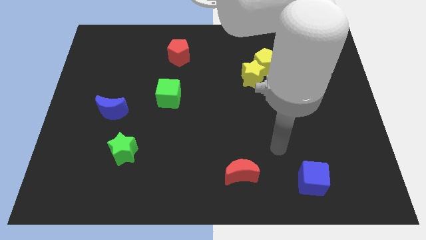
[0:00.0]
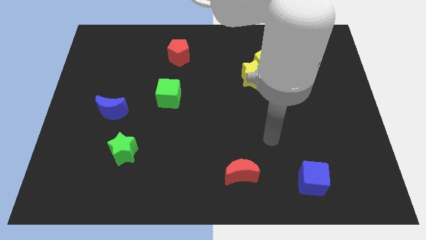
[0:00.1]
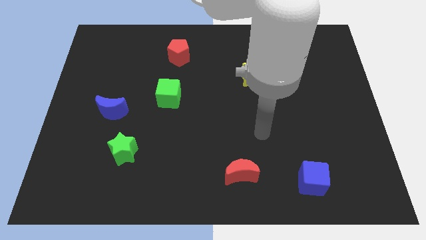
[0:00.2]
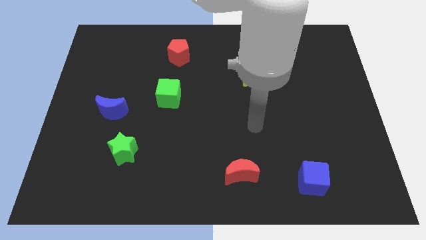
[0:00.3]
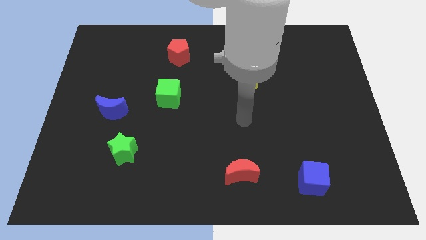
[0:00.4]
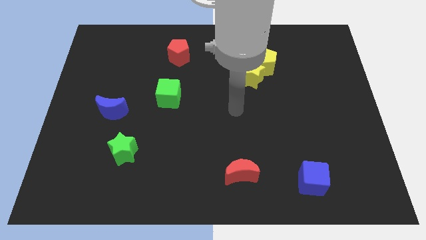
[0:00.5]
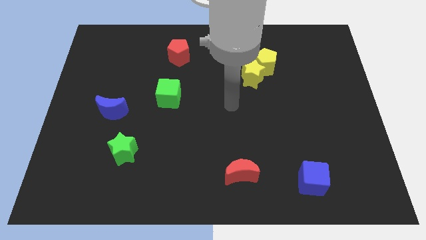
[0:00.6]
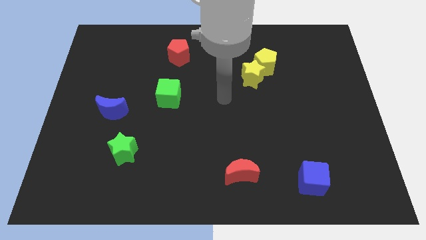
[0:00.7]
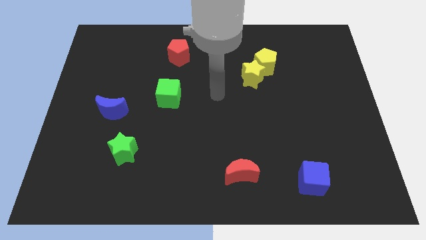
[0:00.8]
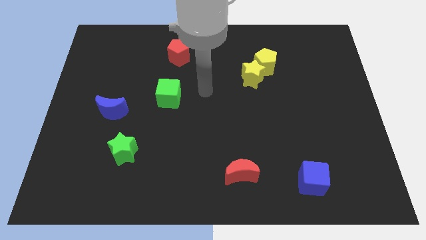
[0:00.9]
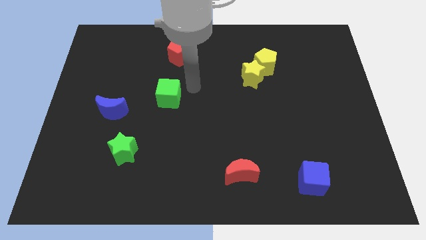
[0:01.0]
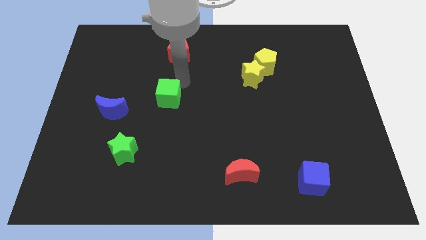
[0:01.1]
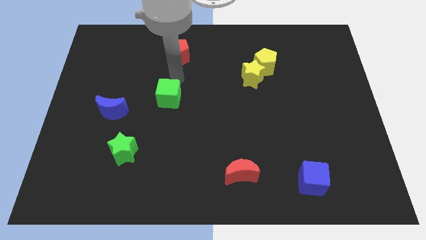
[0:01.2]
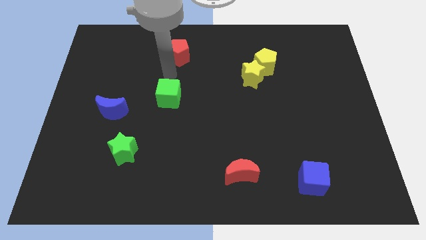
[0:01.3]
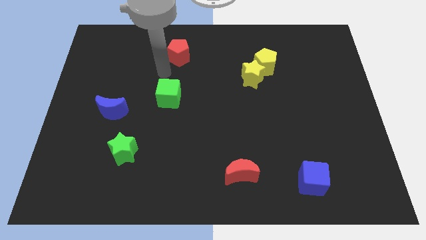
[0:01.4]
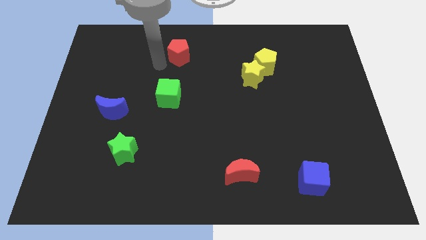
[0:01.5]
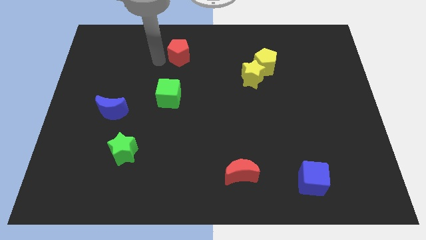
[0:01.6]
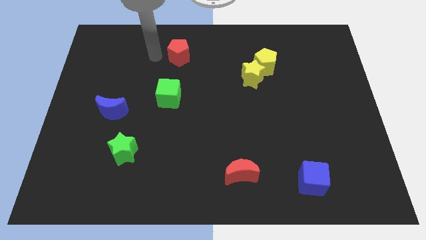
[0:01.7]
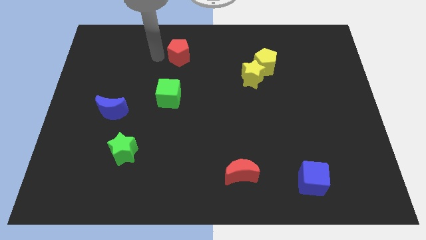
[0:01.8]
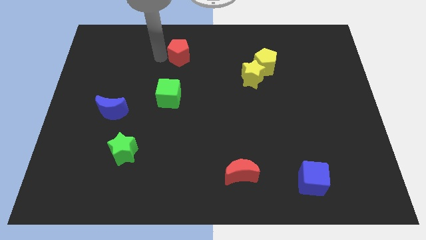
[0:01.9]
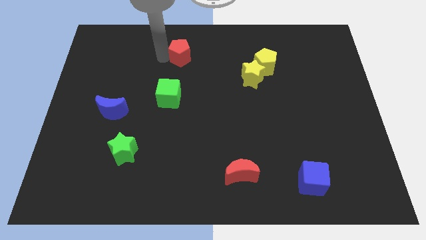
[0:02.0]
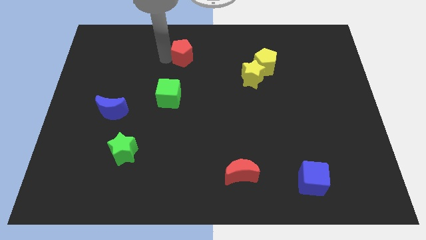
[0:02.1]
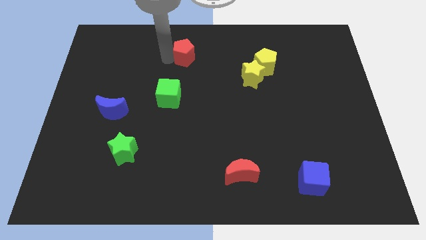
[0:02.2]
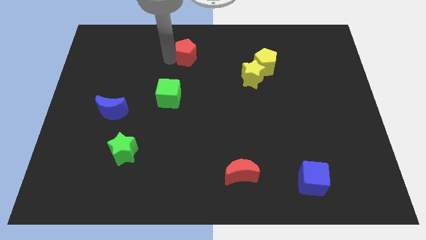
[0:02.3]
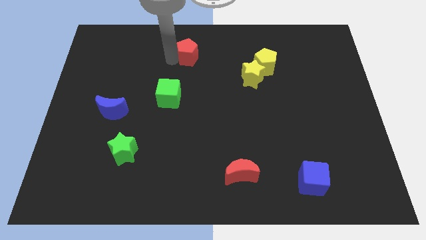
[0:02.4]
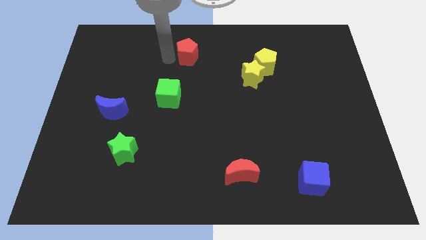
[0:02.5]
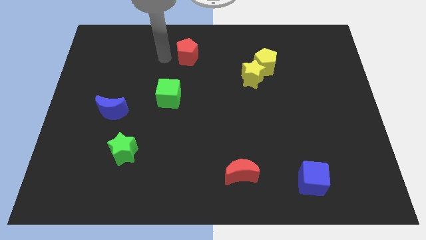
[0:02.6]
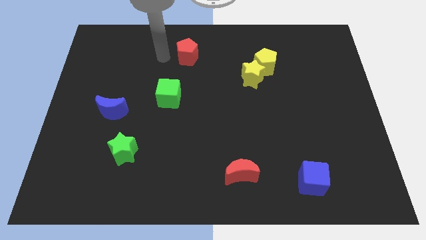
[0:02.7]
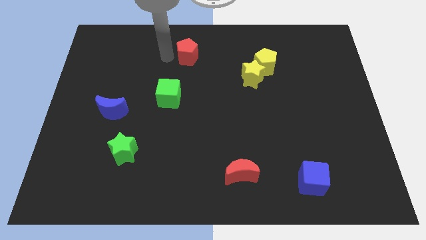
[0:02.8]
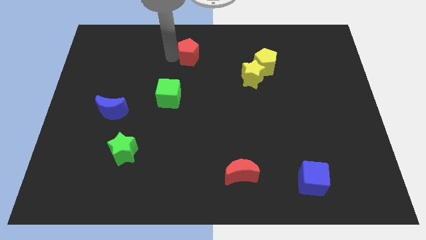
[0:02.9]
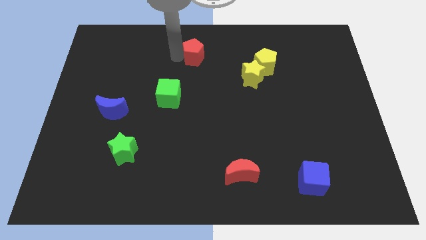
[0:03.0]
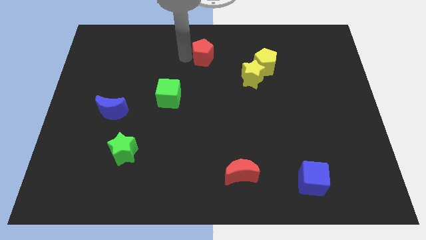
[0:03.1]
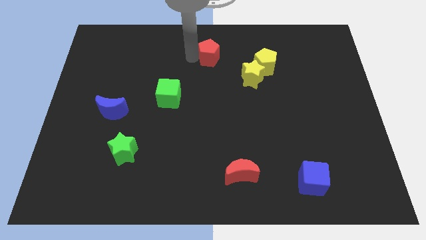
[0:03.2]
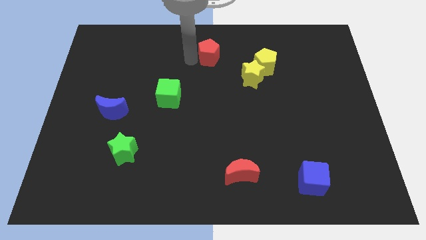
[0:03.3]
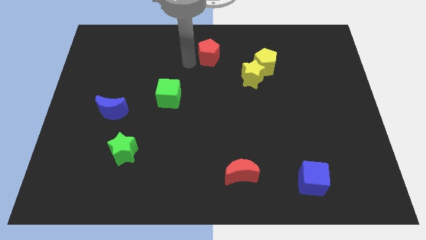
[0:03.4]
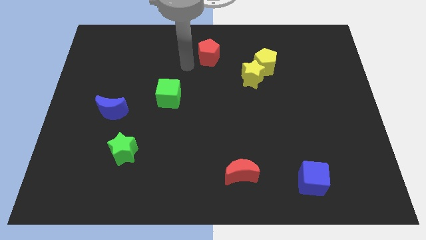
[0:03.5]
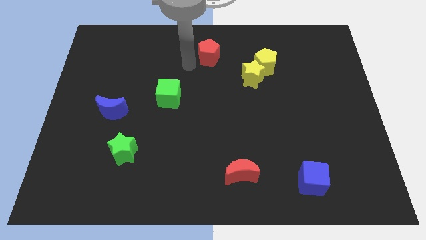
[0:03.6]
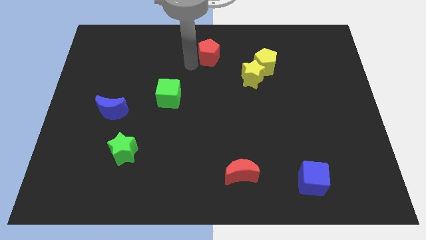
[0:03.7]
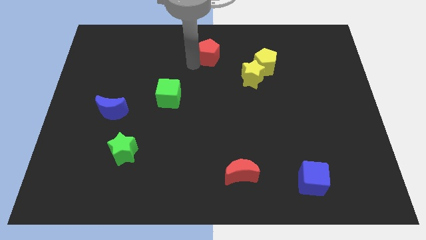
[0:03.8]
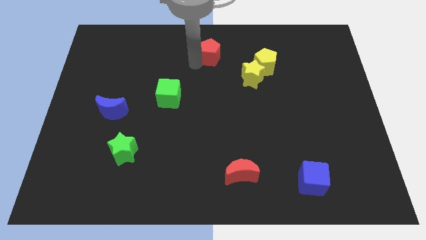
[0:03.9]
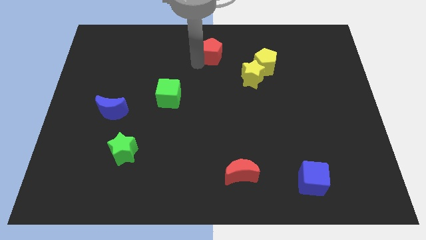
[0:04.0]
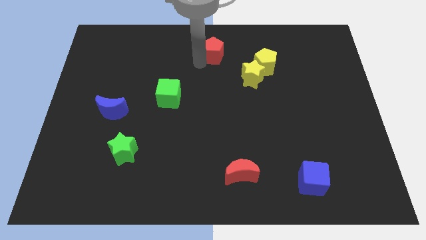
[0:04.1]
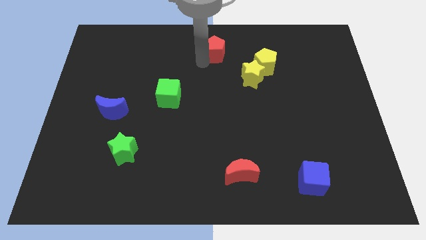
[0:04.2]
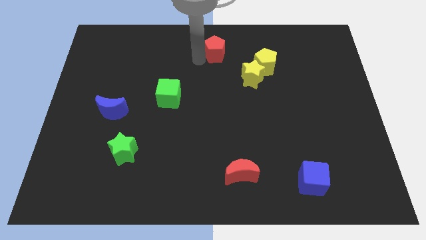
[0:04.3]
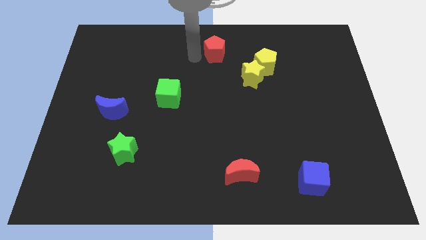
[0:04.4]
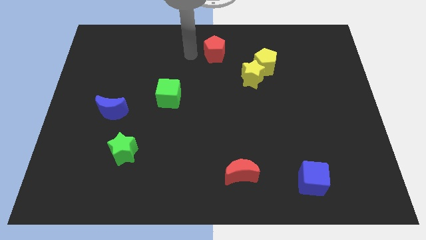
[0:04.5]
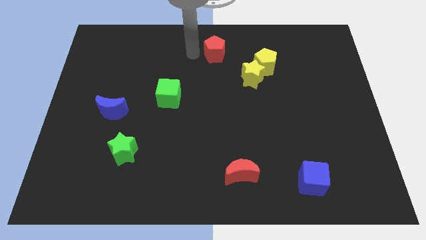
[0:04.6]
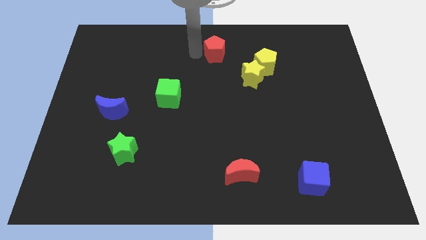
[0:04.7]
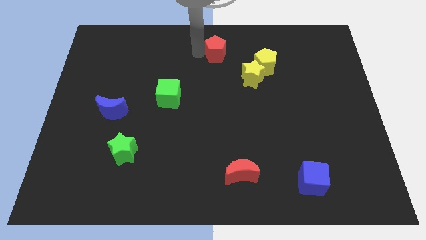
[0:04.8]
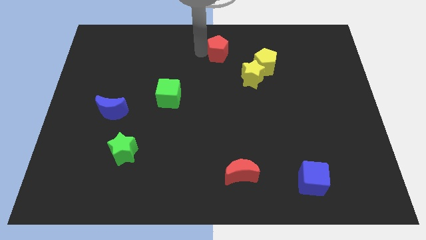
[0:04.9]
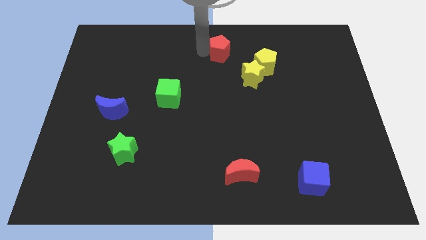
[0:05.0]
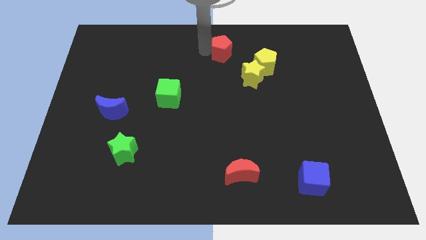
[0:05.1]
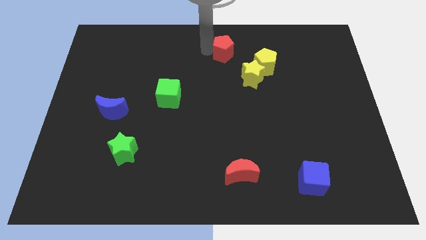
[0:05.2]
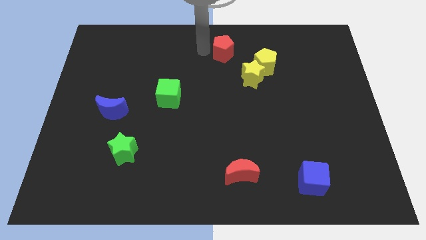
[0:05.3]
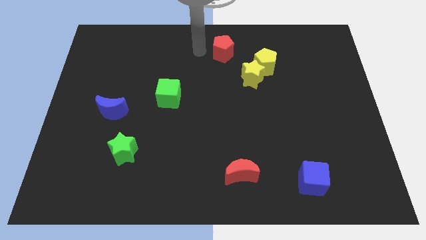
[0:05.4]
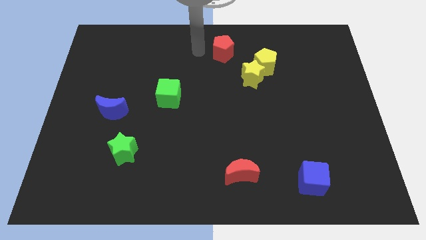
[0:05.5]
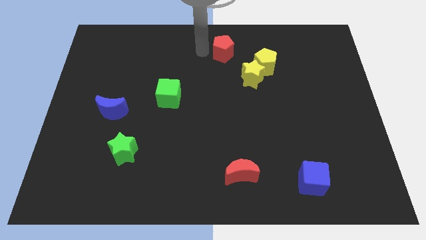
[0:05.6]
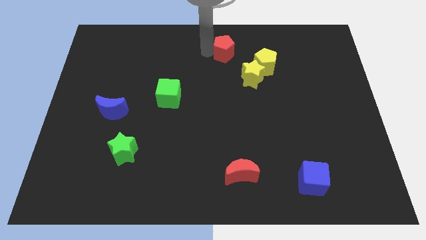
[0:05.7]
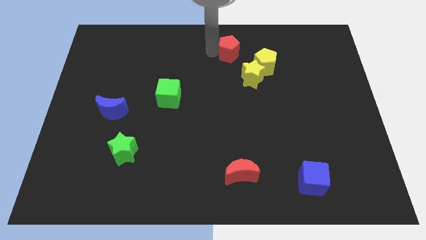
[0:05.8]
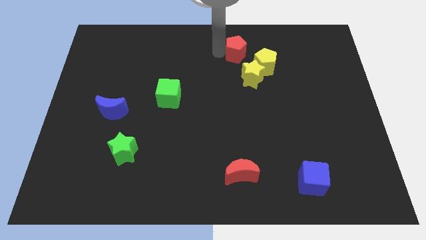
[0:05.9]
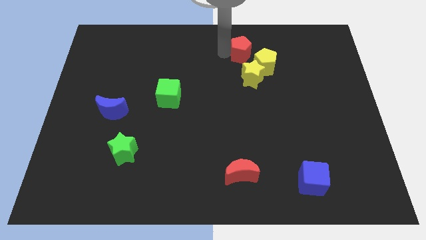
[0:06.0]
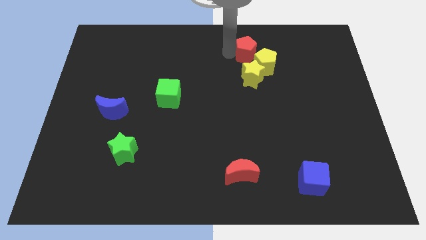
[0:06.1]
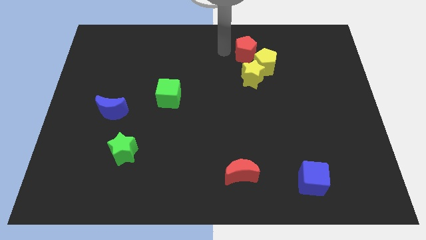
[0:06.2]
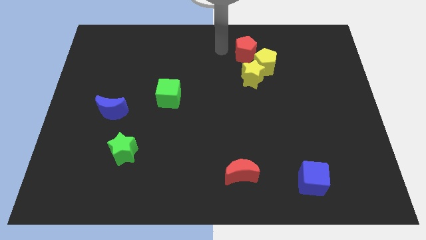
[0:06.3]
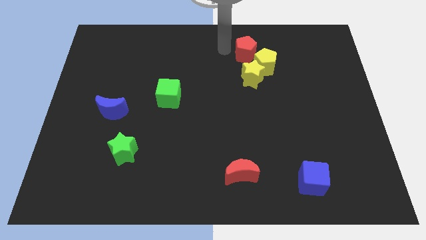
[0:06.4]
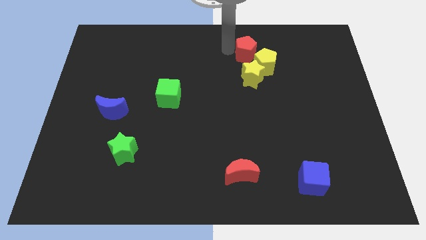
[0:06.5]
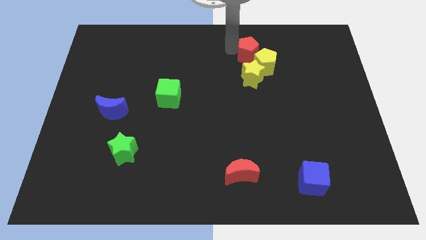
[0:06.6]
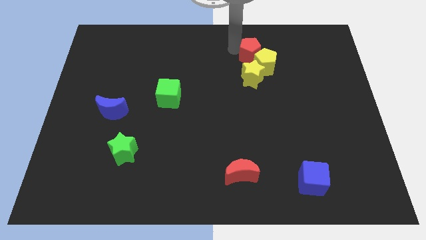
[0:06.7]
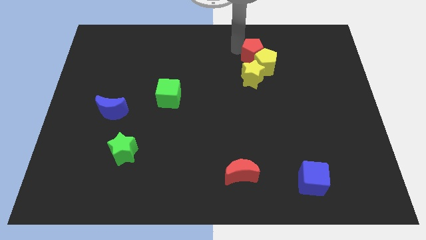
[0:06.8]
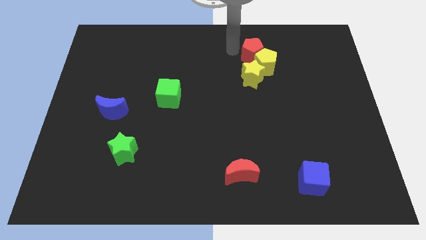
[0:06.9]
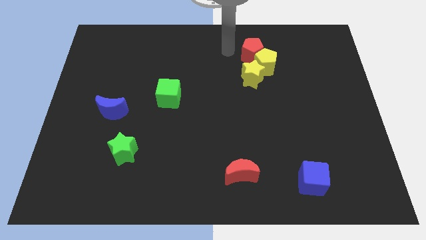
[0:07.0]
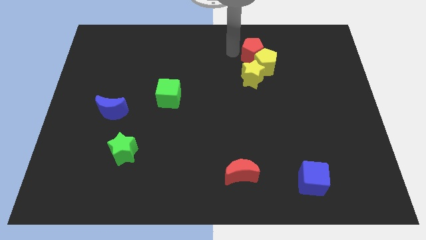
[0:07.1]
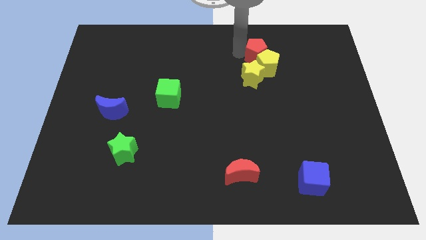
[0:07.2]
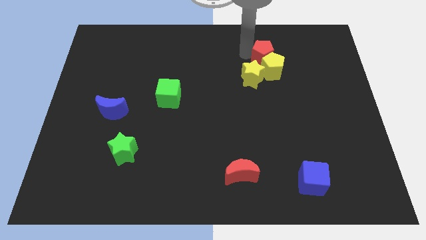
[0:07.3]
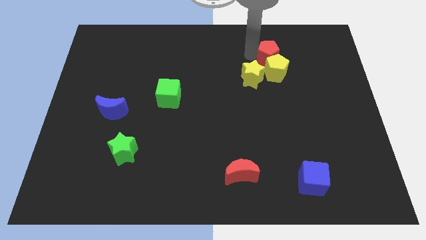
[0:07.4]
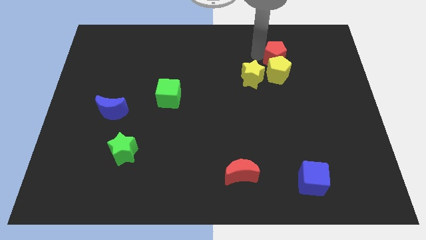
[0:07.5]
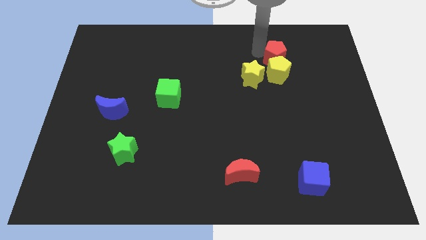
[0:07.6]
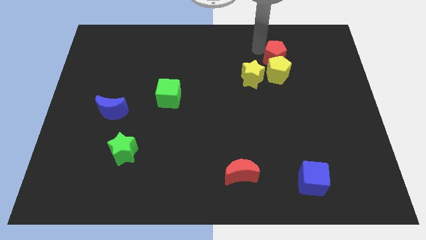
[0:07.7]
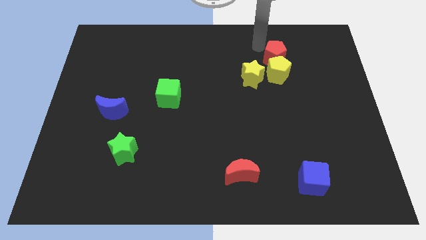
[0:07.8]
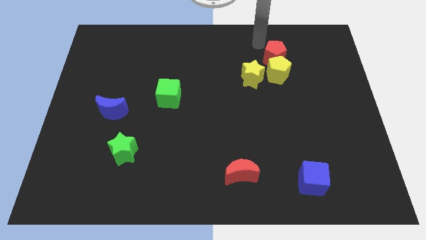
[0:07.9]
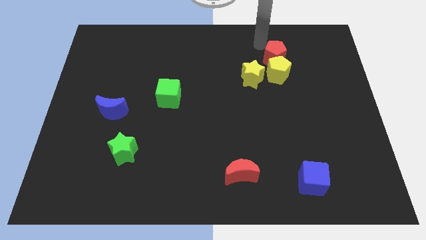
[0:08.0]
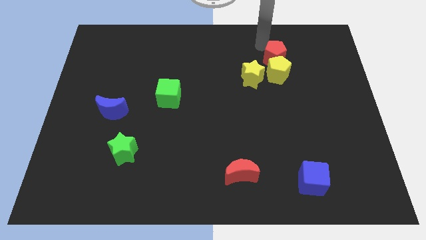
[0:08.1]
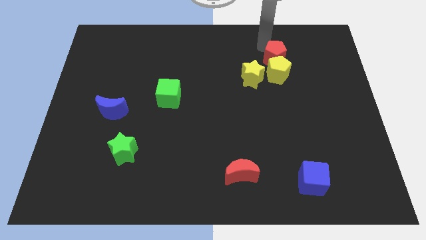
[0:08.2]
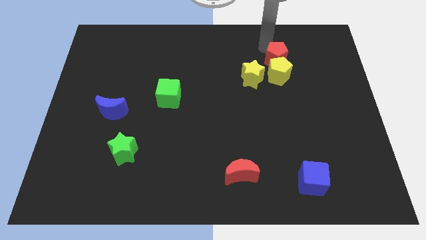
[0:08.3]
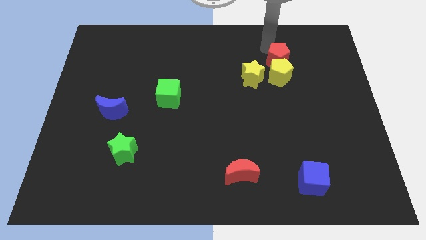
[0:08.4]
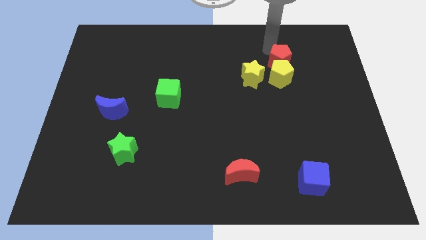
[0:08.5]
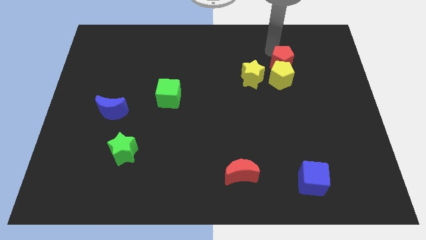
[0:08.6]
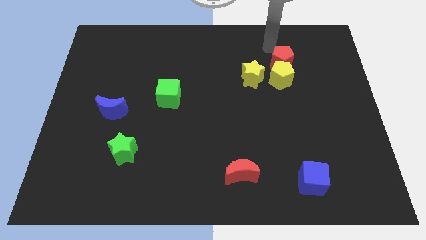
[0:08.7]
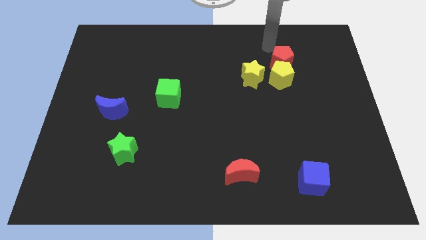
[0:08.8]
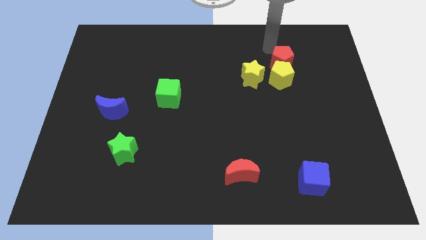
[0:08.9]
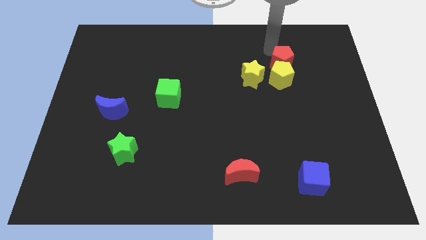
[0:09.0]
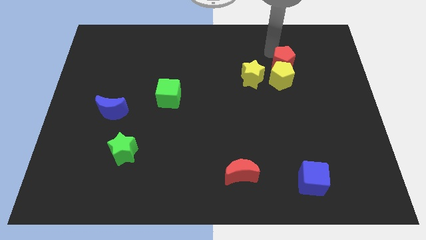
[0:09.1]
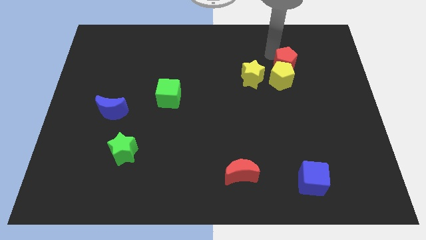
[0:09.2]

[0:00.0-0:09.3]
push the red pentagon to the right side of the yellow star
